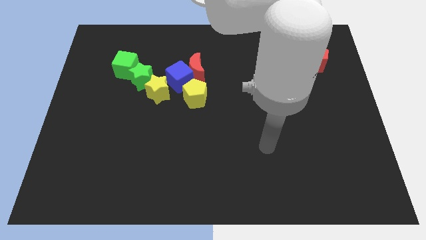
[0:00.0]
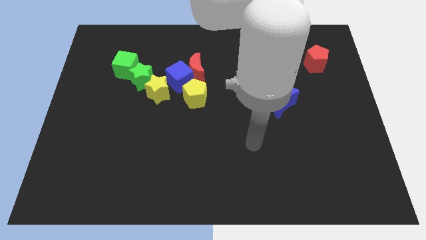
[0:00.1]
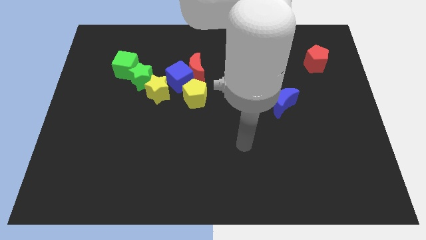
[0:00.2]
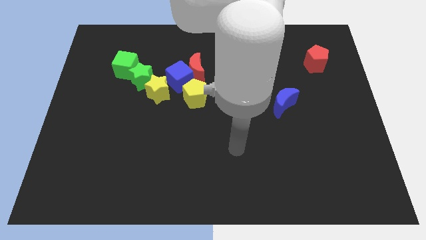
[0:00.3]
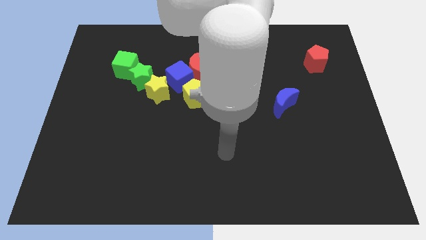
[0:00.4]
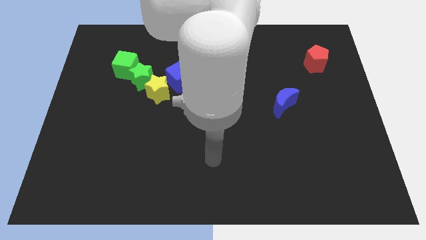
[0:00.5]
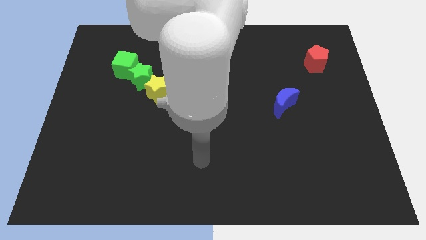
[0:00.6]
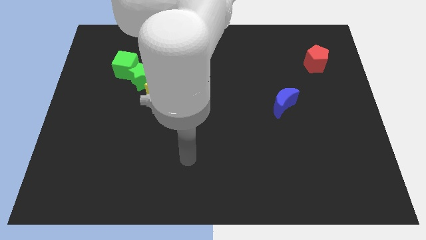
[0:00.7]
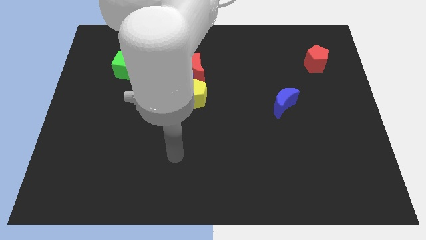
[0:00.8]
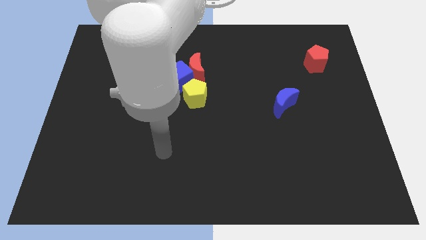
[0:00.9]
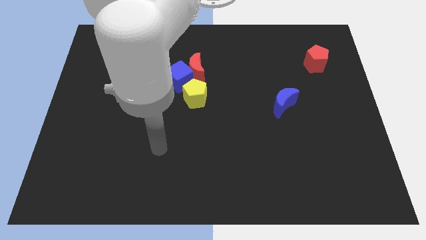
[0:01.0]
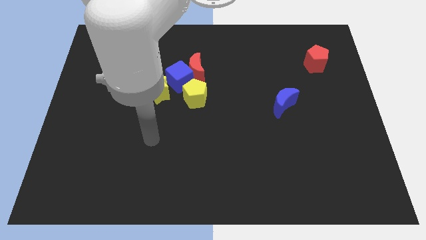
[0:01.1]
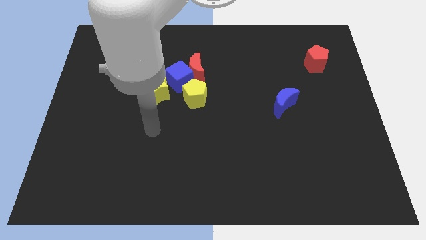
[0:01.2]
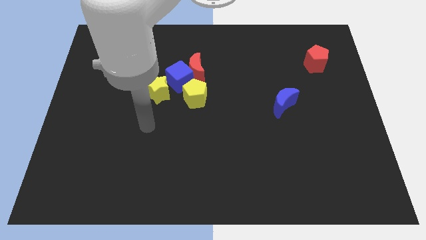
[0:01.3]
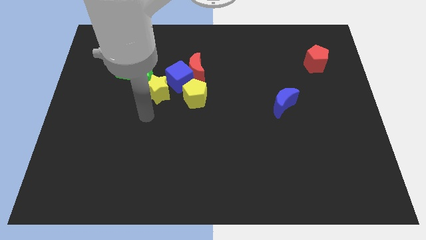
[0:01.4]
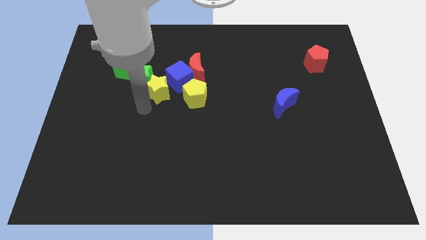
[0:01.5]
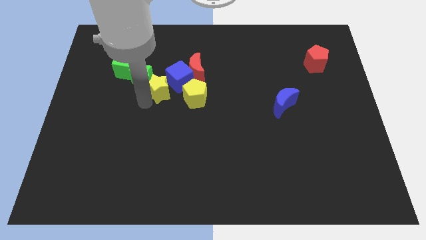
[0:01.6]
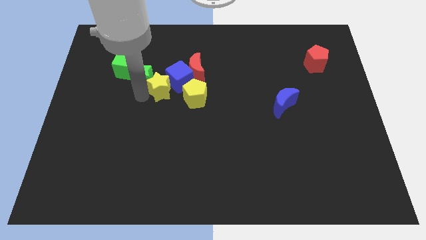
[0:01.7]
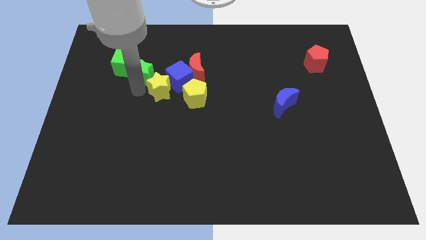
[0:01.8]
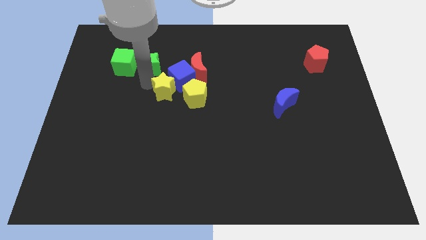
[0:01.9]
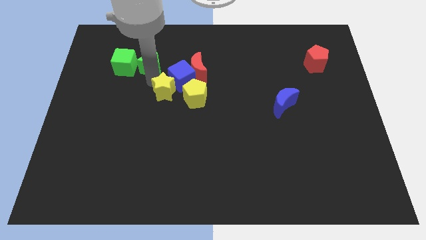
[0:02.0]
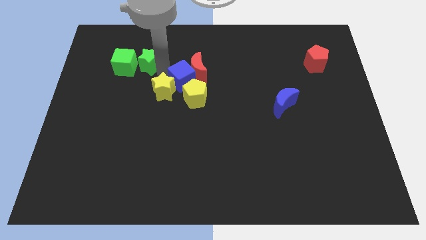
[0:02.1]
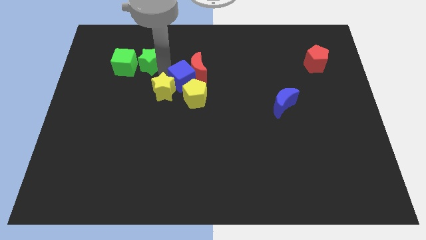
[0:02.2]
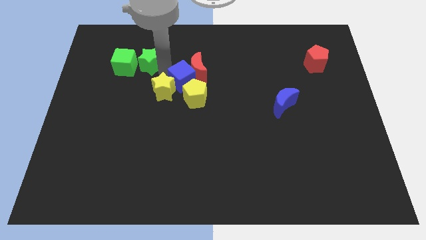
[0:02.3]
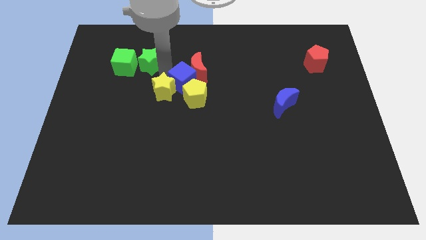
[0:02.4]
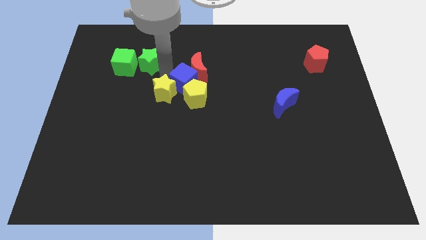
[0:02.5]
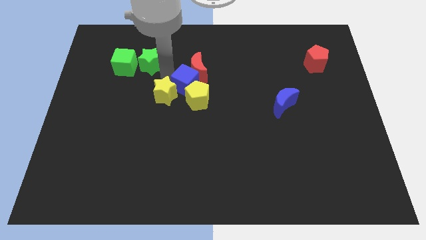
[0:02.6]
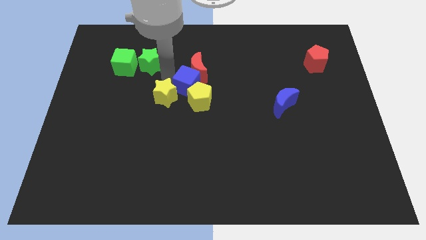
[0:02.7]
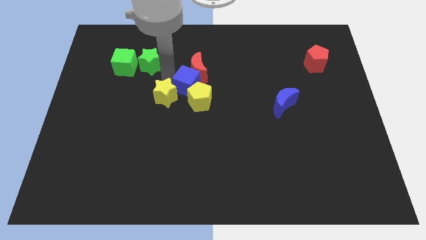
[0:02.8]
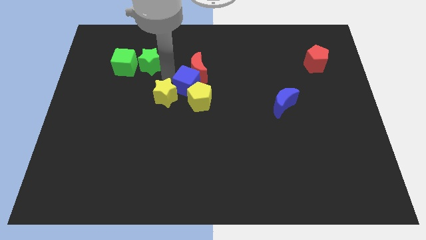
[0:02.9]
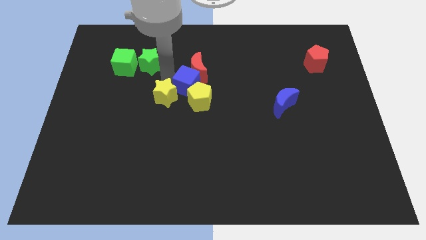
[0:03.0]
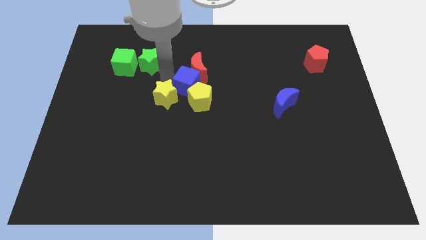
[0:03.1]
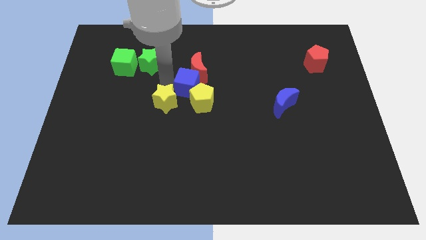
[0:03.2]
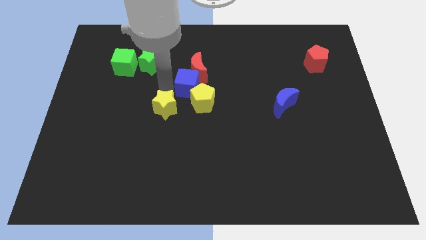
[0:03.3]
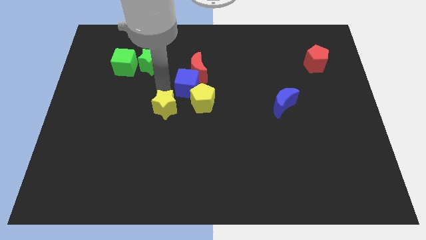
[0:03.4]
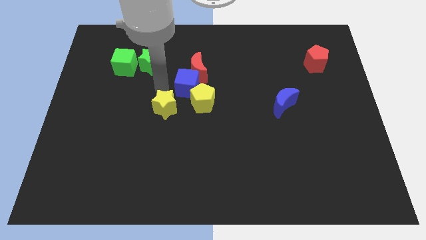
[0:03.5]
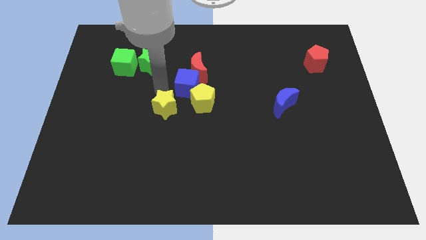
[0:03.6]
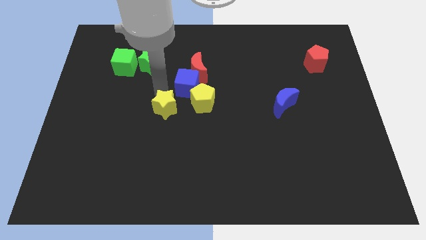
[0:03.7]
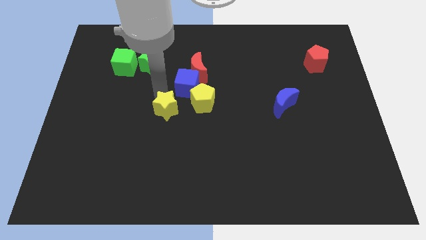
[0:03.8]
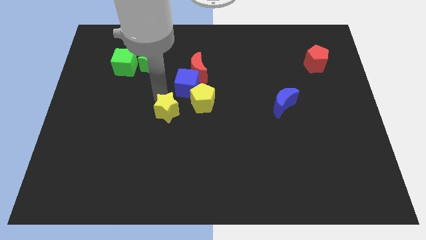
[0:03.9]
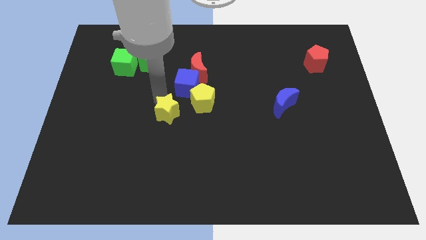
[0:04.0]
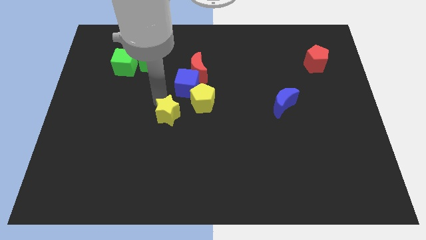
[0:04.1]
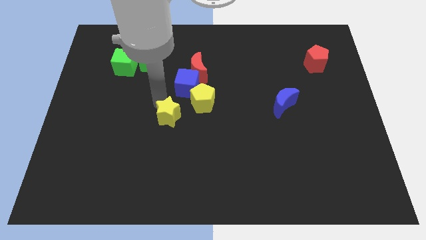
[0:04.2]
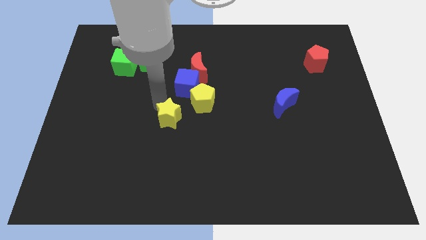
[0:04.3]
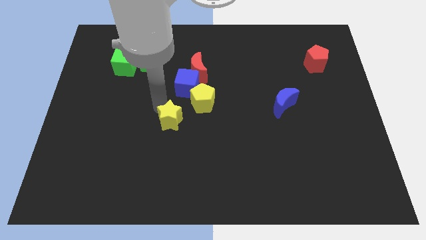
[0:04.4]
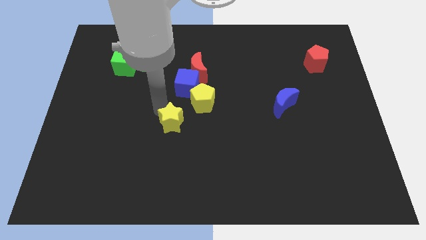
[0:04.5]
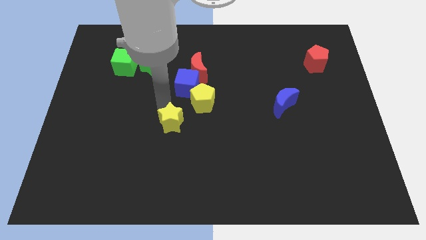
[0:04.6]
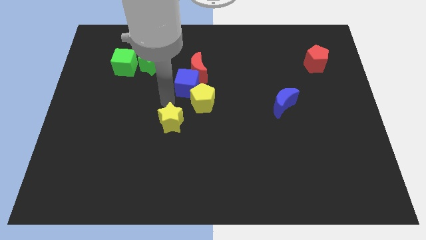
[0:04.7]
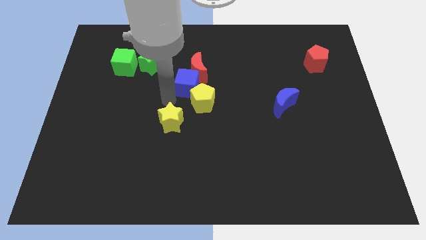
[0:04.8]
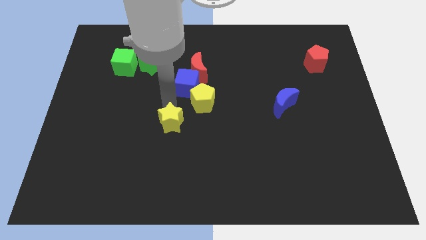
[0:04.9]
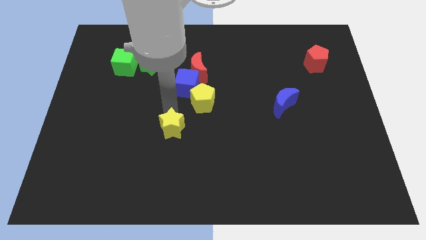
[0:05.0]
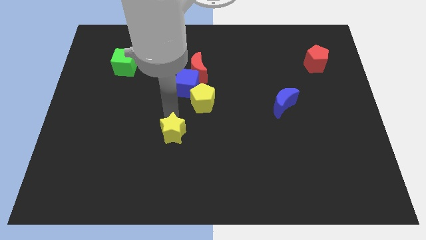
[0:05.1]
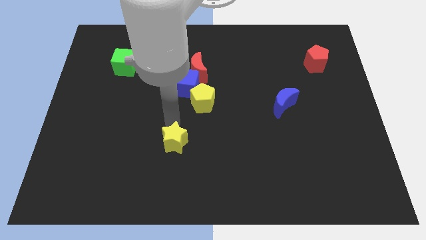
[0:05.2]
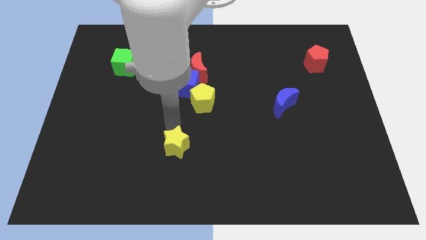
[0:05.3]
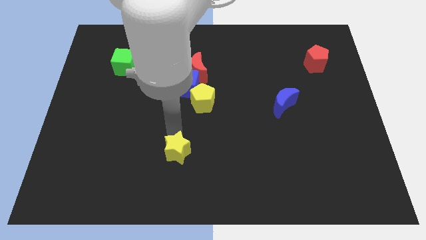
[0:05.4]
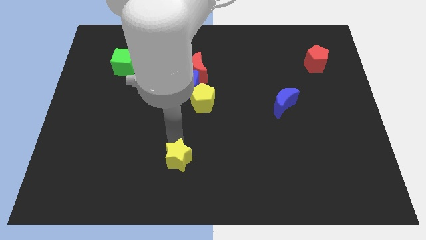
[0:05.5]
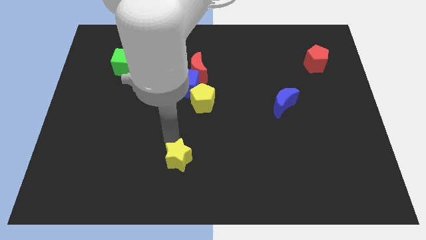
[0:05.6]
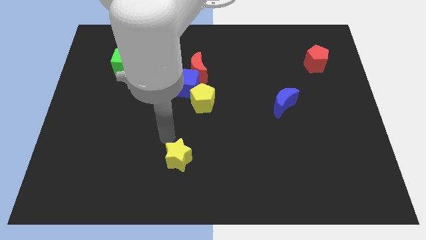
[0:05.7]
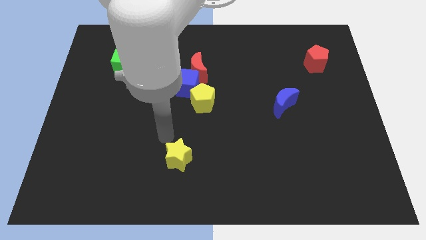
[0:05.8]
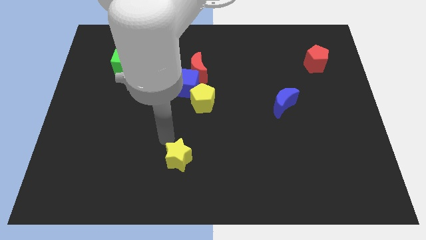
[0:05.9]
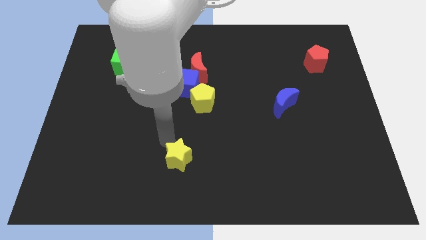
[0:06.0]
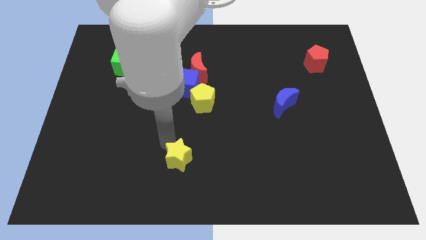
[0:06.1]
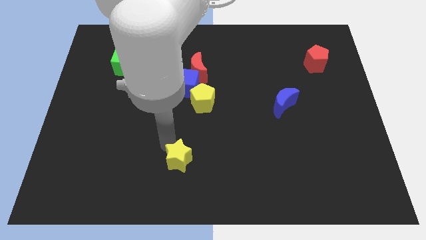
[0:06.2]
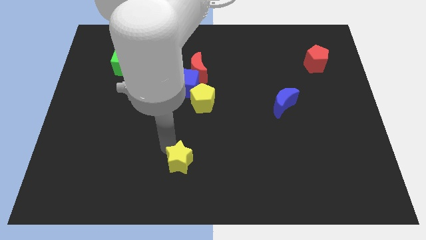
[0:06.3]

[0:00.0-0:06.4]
put the yellow star to the bottom side

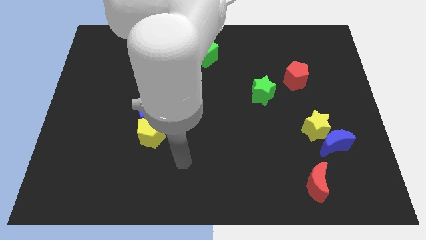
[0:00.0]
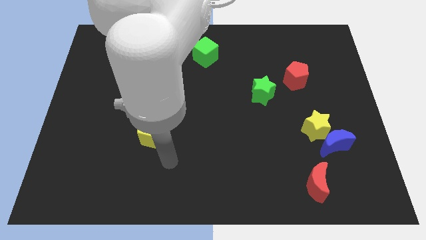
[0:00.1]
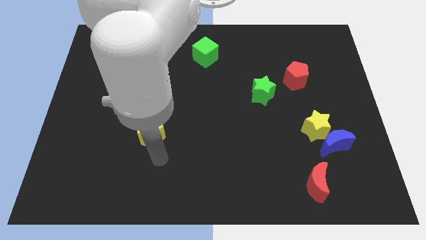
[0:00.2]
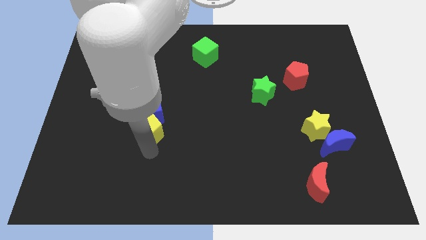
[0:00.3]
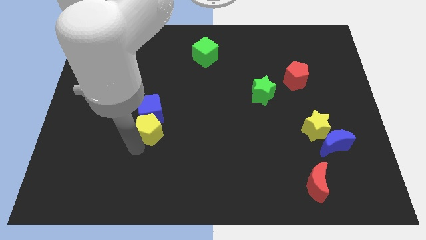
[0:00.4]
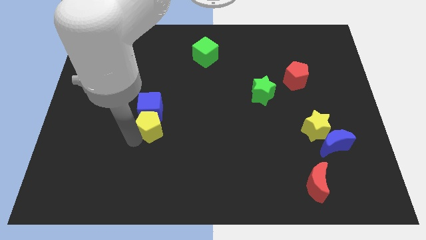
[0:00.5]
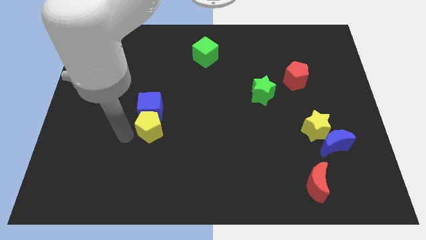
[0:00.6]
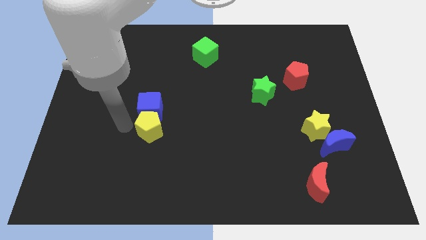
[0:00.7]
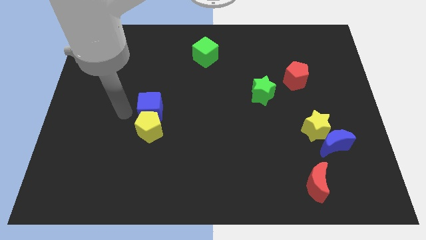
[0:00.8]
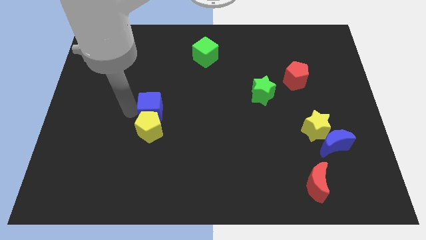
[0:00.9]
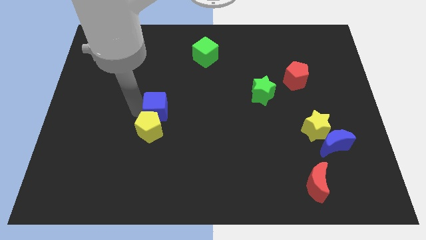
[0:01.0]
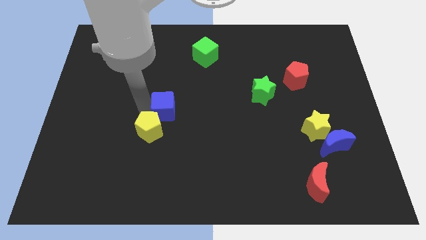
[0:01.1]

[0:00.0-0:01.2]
slide the blue cube to the center
